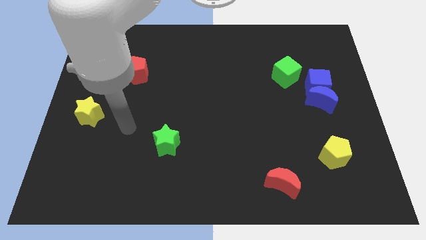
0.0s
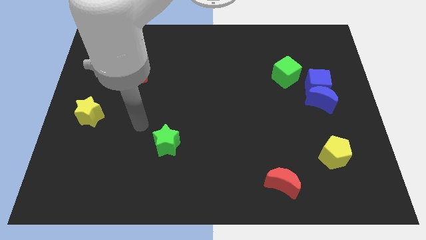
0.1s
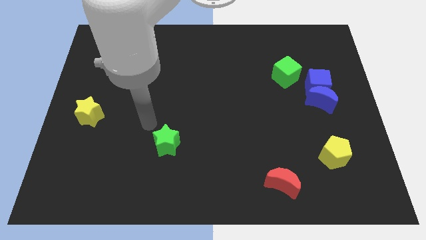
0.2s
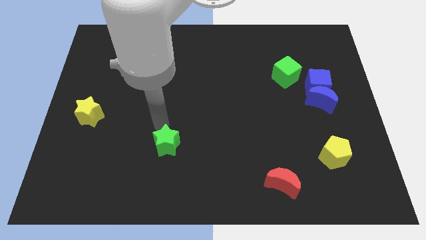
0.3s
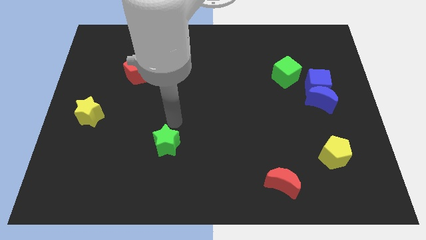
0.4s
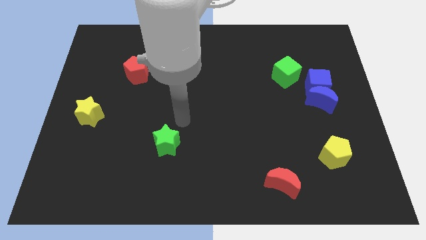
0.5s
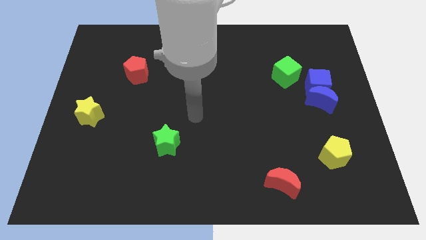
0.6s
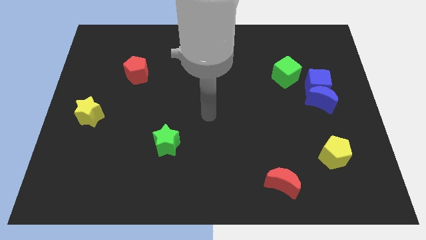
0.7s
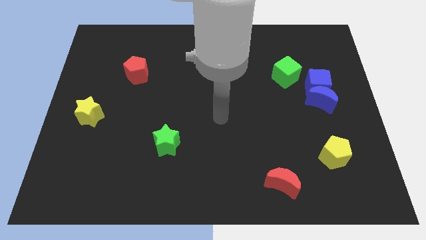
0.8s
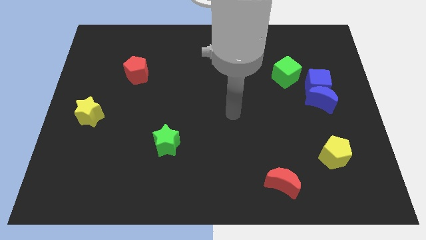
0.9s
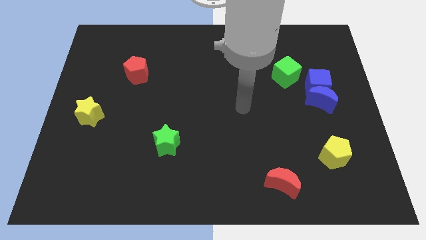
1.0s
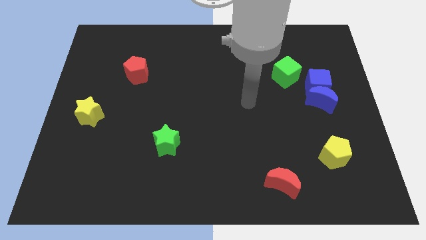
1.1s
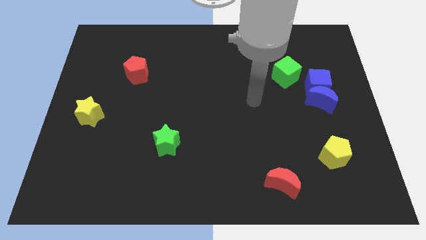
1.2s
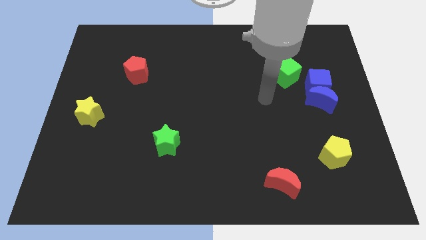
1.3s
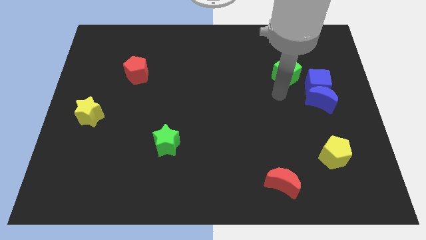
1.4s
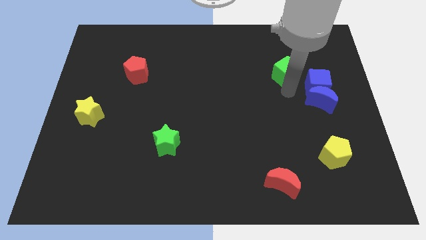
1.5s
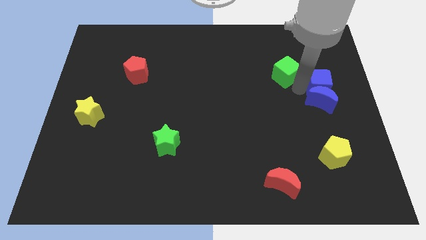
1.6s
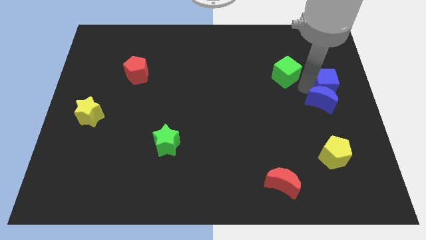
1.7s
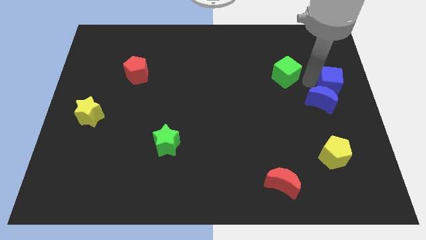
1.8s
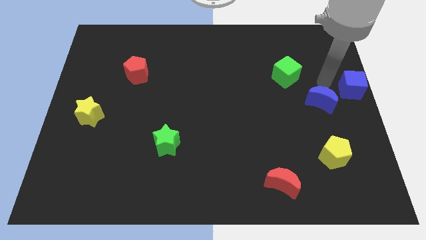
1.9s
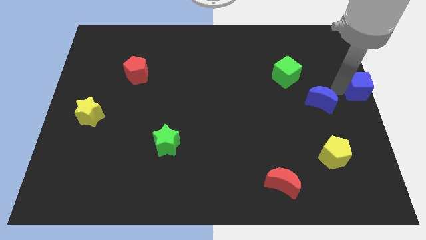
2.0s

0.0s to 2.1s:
pull the blue moon apart from the blue cube

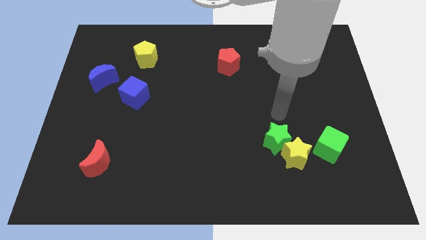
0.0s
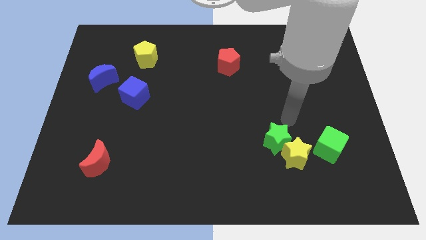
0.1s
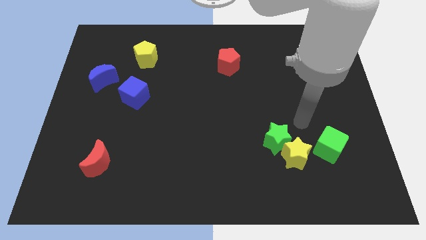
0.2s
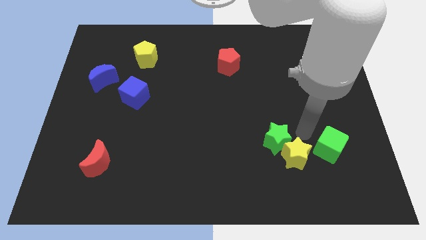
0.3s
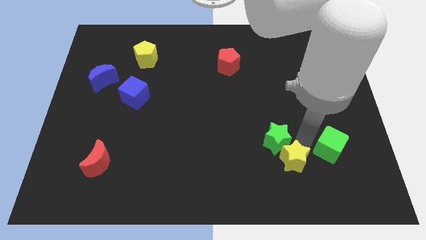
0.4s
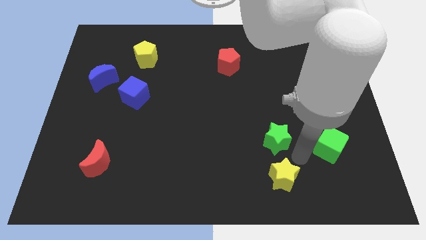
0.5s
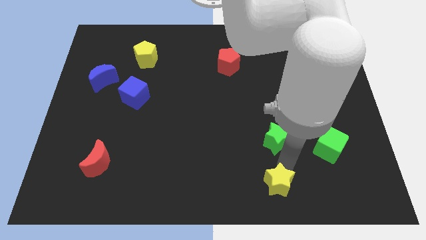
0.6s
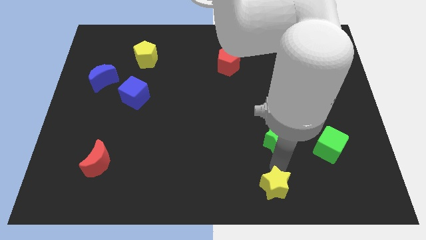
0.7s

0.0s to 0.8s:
separate the green star from the yellow star

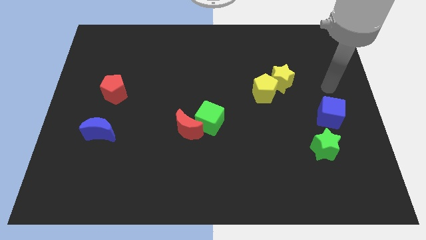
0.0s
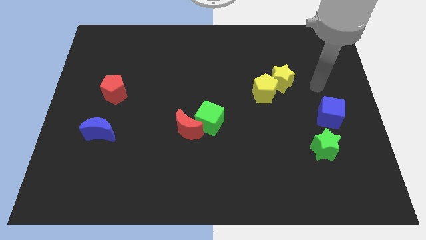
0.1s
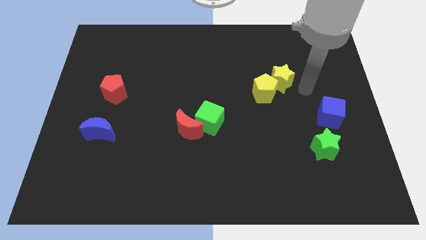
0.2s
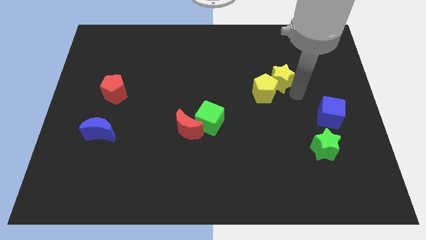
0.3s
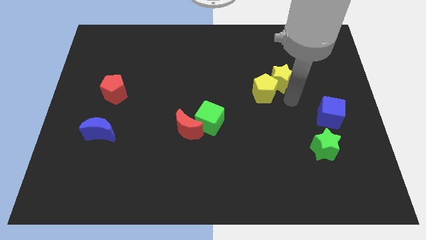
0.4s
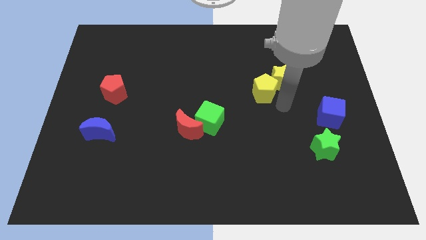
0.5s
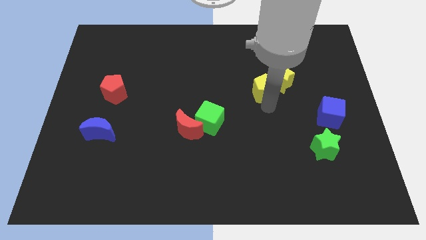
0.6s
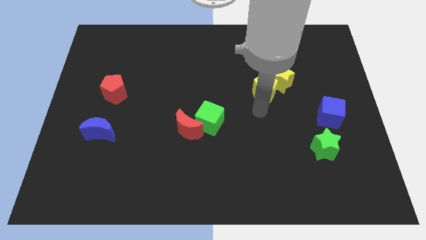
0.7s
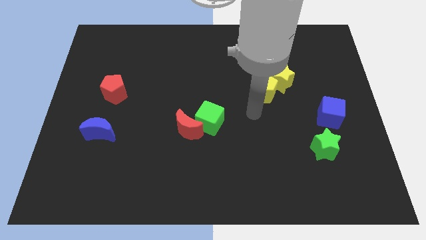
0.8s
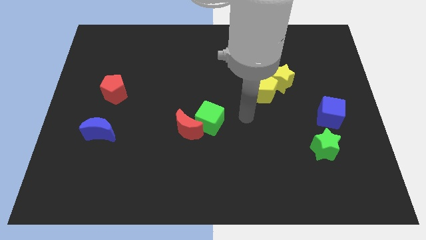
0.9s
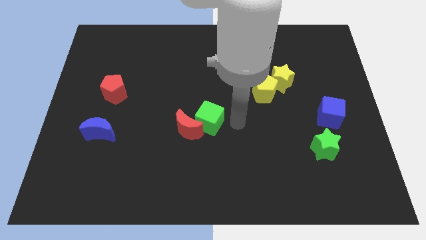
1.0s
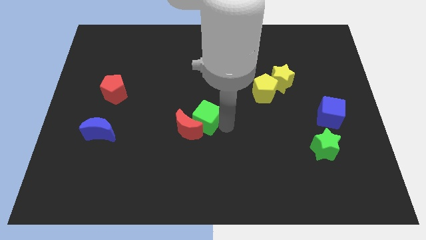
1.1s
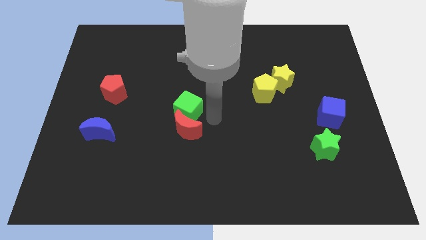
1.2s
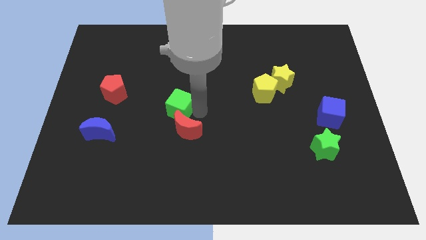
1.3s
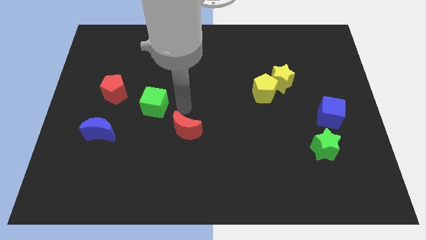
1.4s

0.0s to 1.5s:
move the red moon away from the green cube

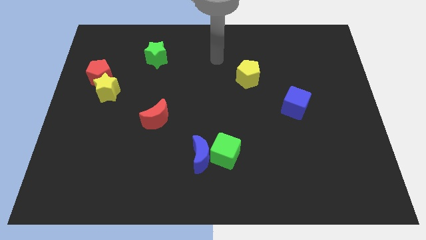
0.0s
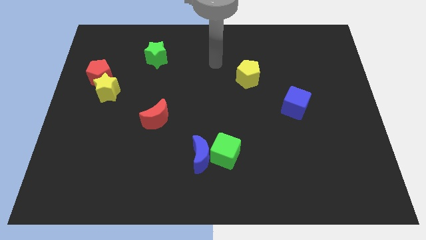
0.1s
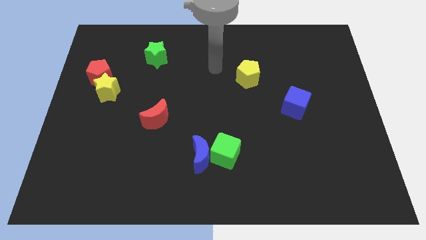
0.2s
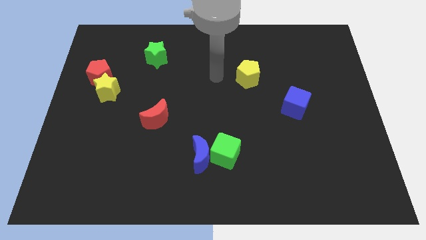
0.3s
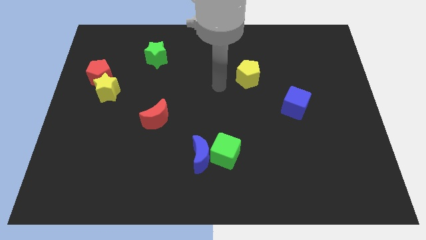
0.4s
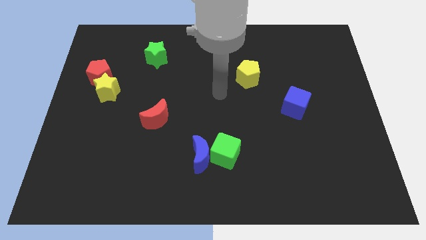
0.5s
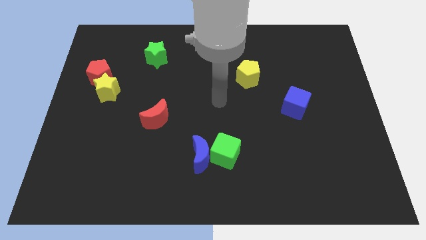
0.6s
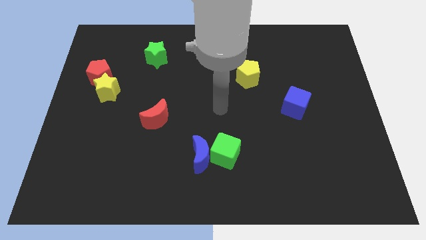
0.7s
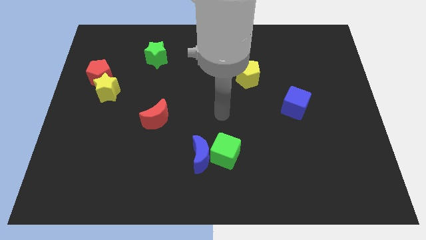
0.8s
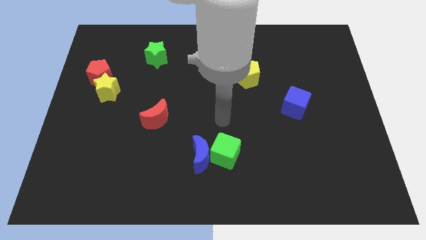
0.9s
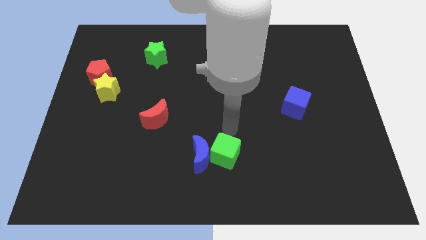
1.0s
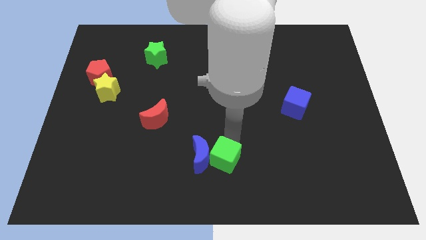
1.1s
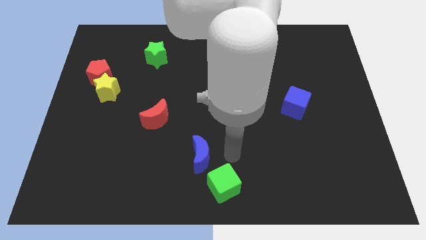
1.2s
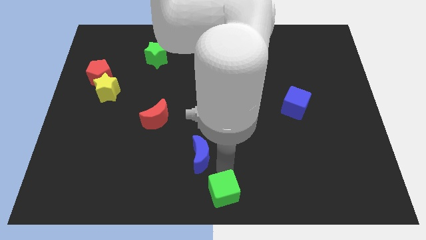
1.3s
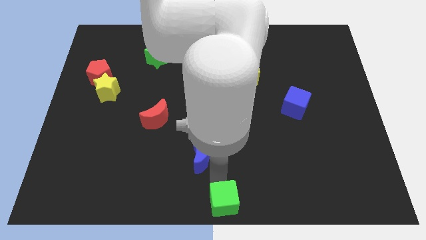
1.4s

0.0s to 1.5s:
pull the blue moon apart from the green cube

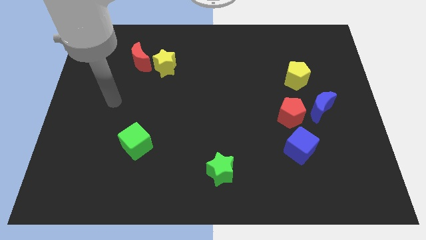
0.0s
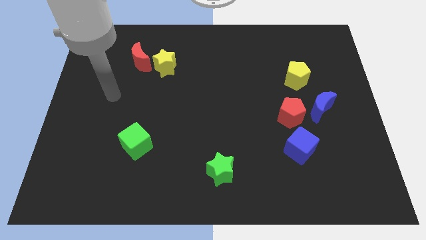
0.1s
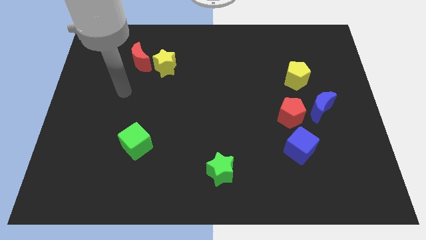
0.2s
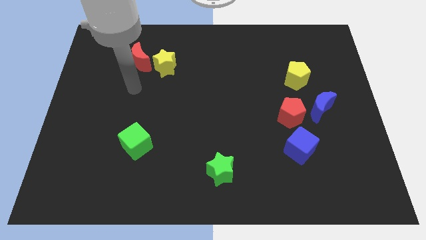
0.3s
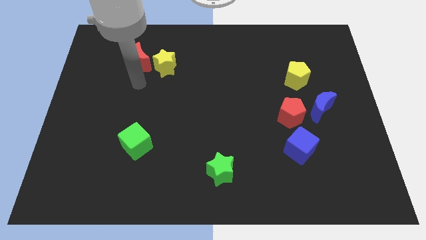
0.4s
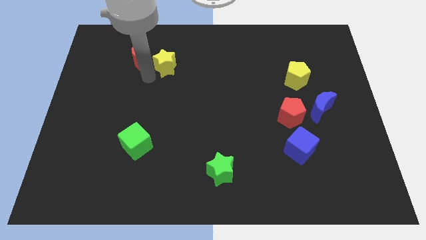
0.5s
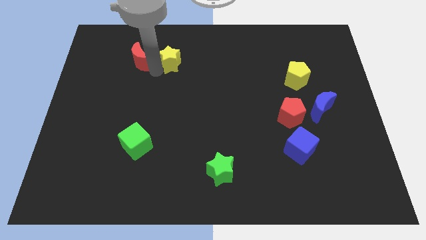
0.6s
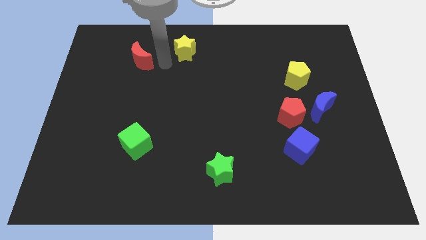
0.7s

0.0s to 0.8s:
separate the red moon from the yellow star

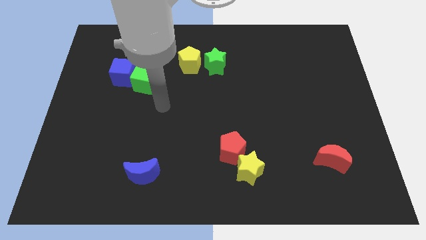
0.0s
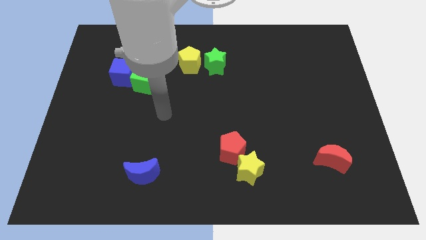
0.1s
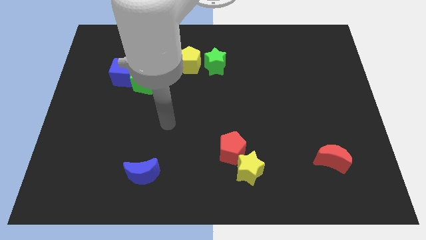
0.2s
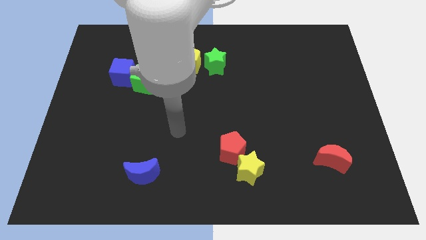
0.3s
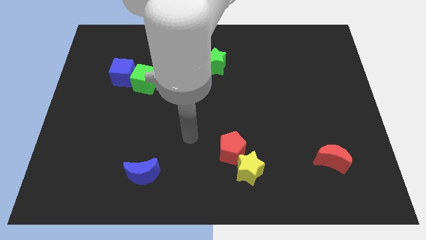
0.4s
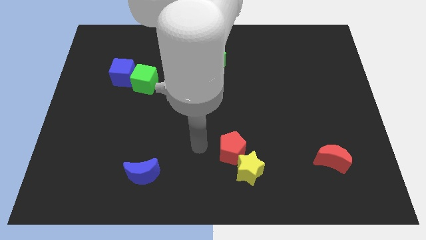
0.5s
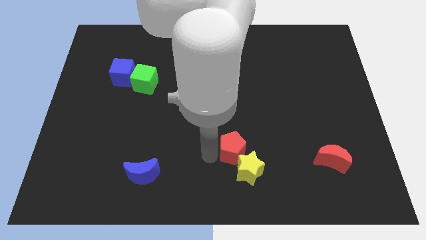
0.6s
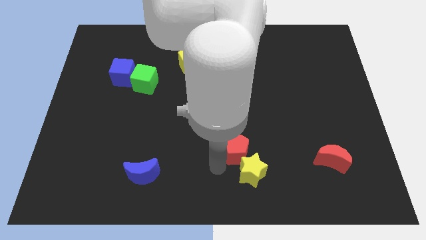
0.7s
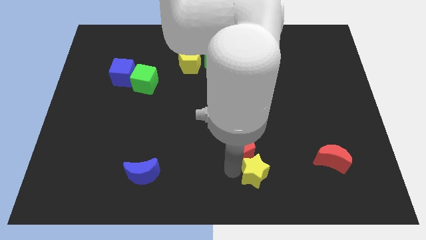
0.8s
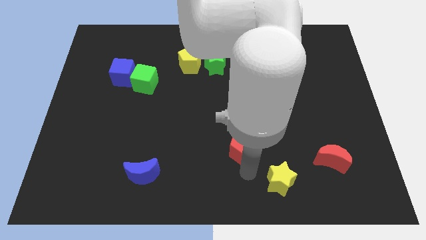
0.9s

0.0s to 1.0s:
move the red pentagon away from the yellow star

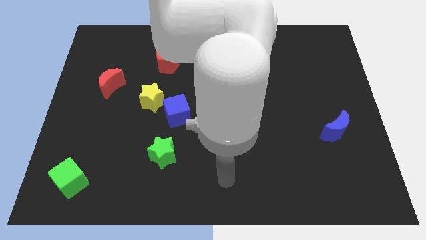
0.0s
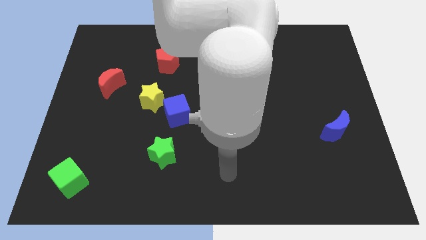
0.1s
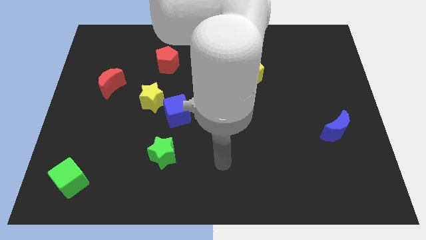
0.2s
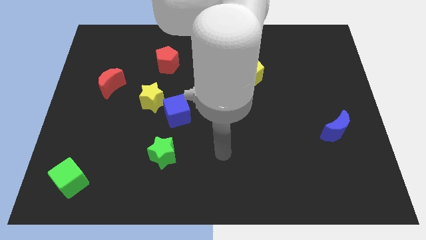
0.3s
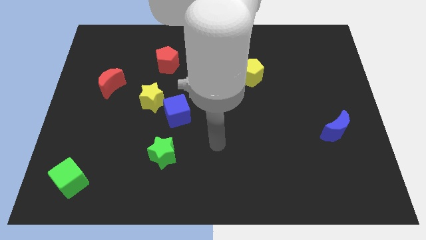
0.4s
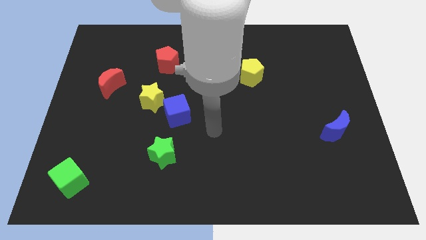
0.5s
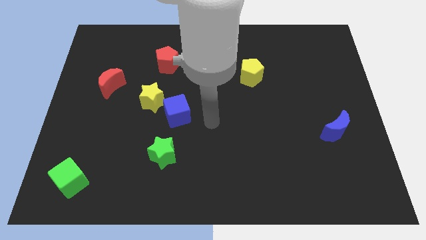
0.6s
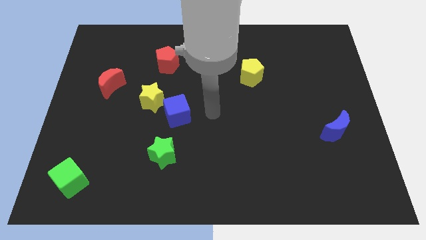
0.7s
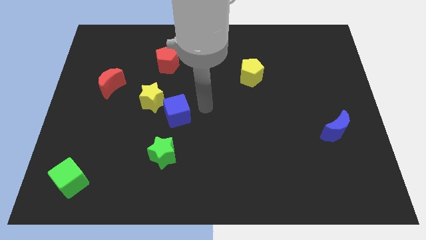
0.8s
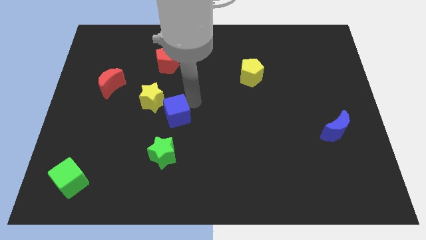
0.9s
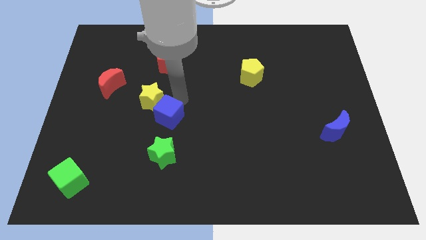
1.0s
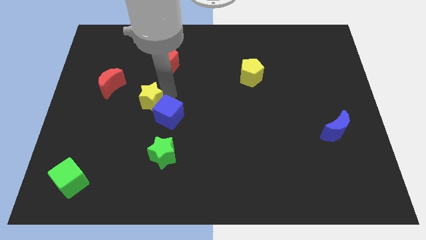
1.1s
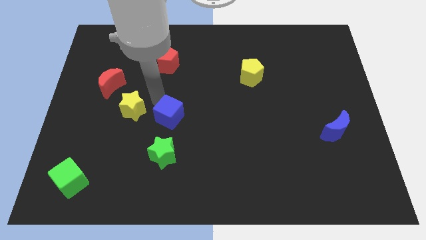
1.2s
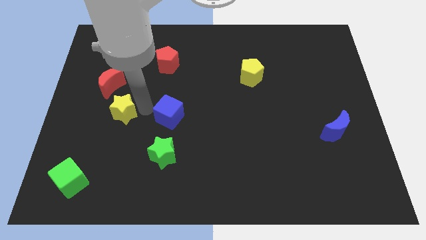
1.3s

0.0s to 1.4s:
pull the blue cube apart from the yellow star

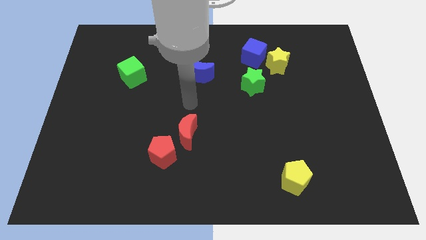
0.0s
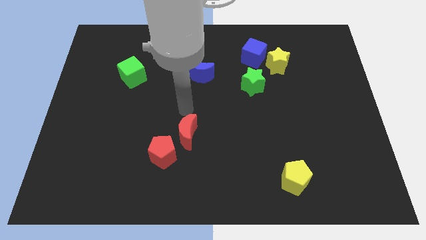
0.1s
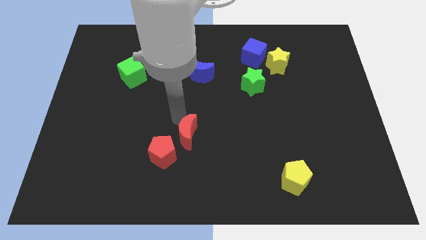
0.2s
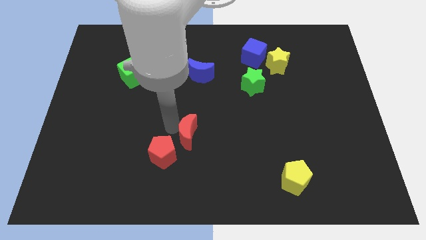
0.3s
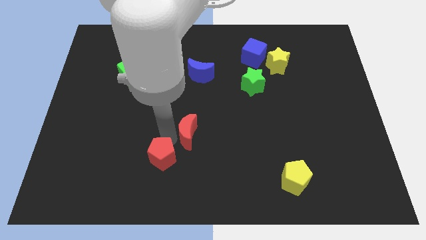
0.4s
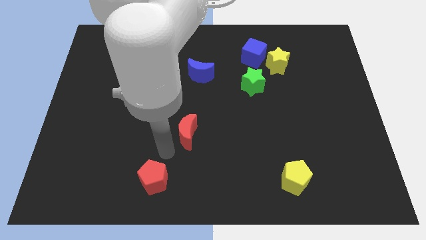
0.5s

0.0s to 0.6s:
move the red moon away from the red pentagon
